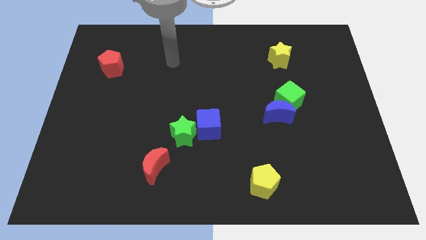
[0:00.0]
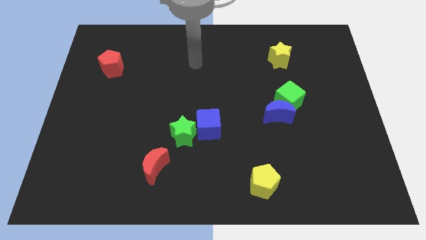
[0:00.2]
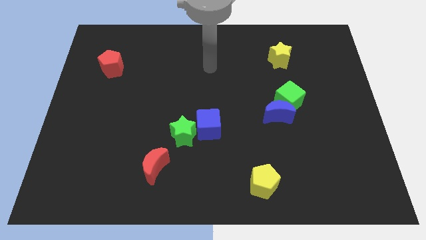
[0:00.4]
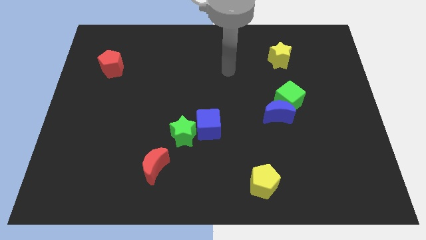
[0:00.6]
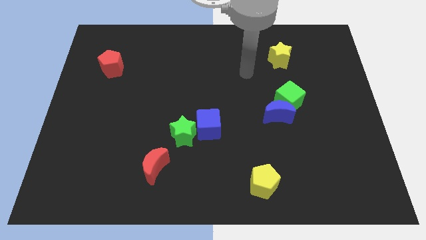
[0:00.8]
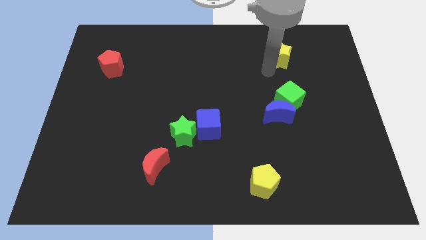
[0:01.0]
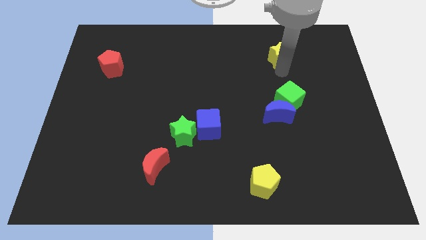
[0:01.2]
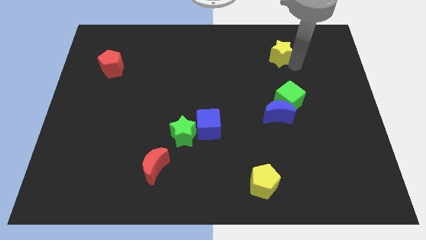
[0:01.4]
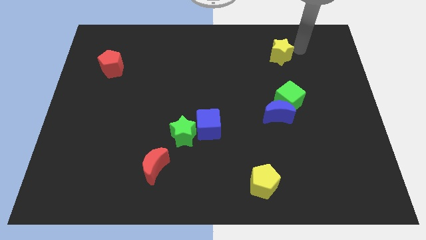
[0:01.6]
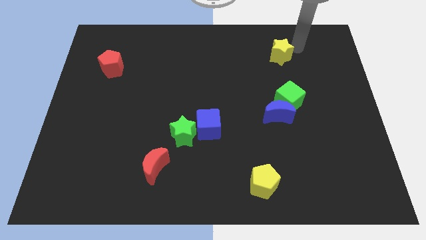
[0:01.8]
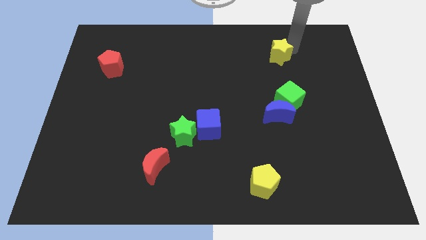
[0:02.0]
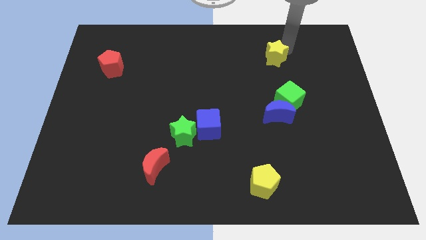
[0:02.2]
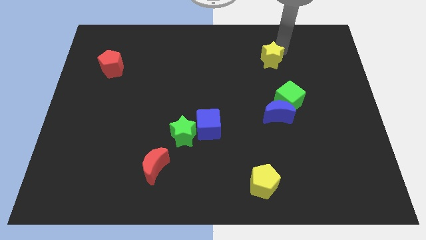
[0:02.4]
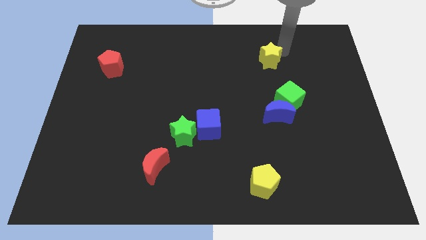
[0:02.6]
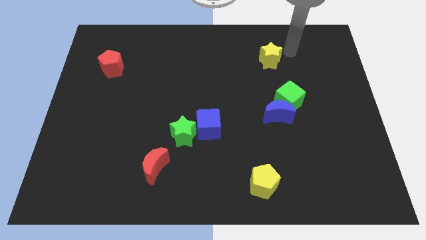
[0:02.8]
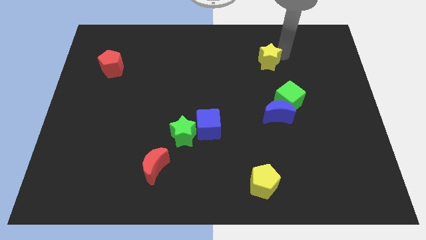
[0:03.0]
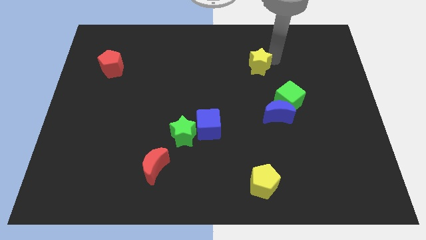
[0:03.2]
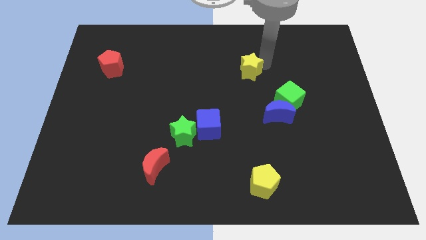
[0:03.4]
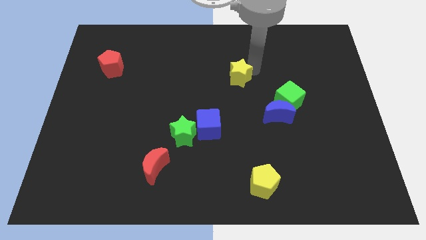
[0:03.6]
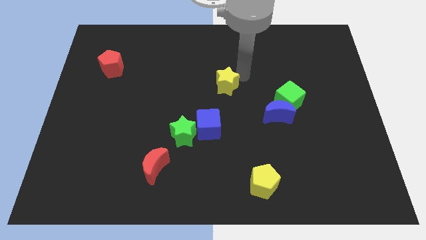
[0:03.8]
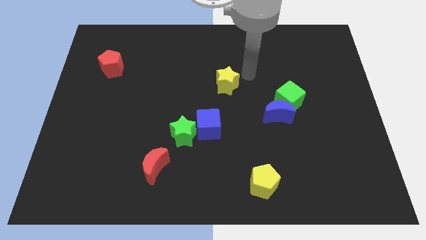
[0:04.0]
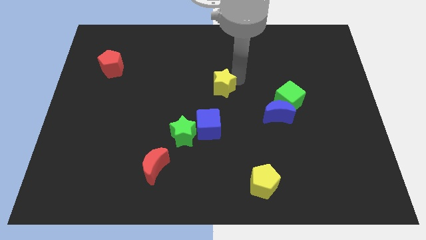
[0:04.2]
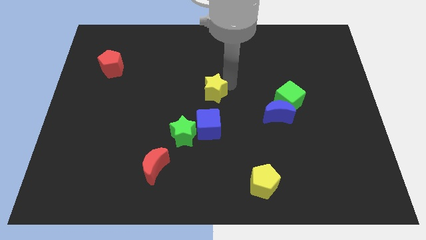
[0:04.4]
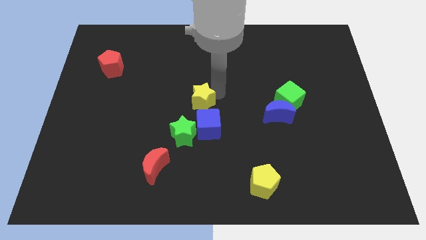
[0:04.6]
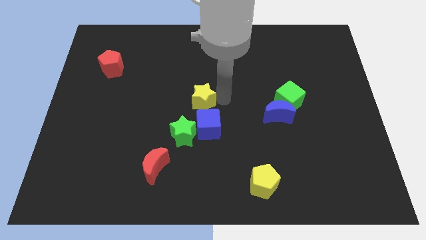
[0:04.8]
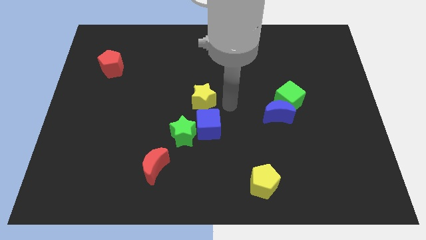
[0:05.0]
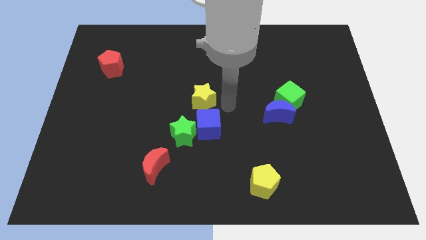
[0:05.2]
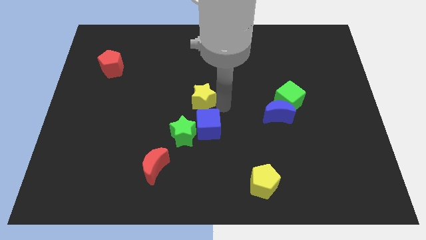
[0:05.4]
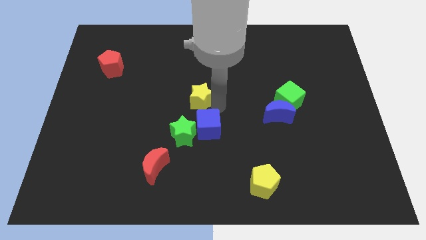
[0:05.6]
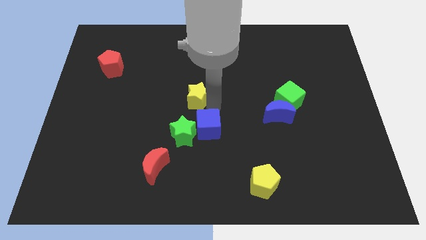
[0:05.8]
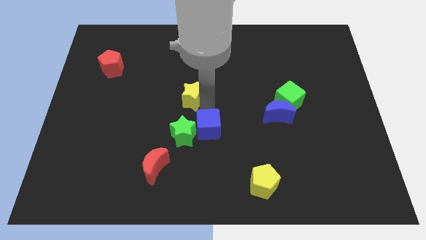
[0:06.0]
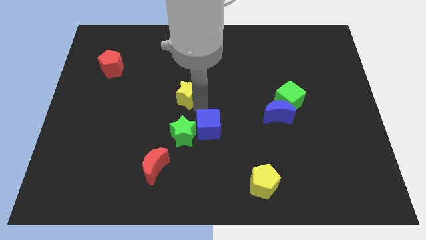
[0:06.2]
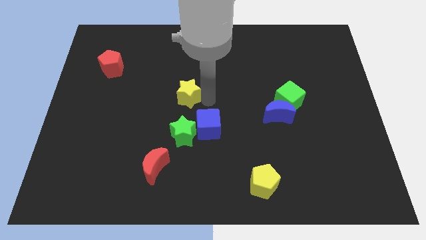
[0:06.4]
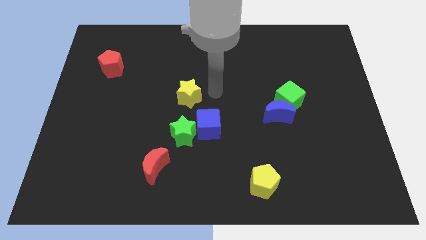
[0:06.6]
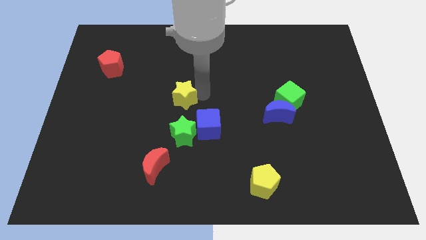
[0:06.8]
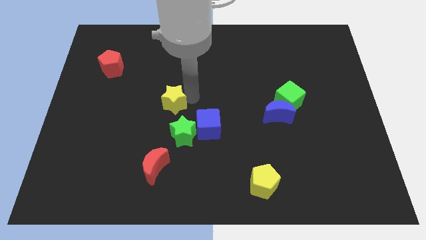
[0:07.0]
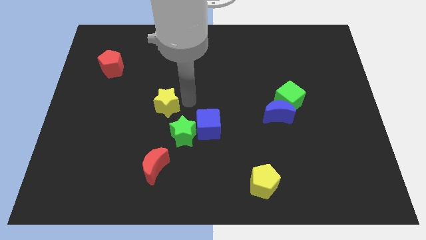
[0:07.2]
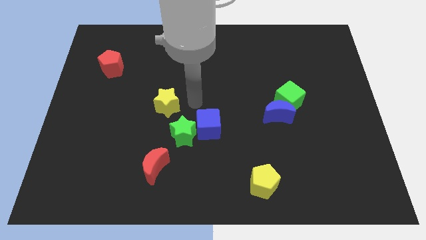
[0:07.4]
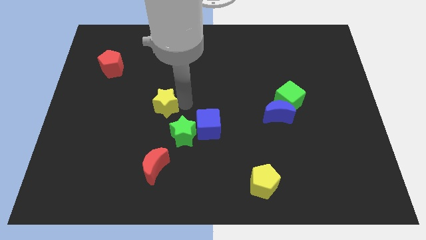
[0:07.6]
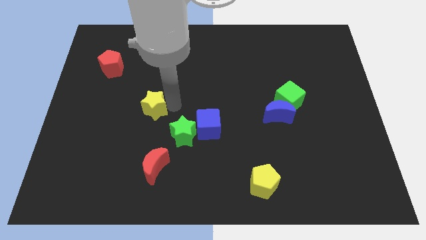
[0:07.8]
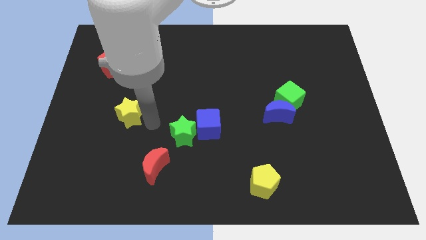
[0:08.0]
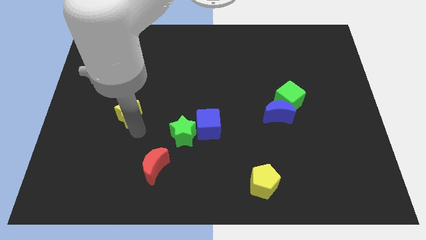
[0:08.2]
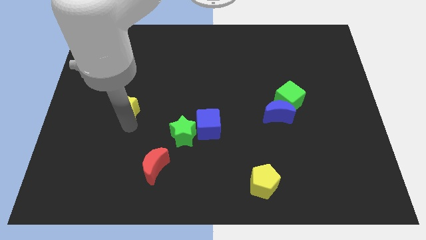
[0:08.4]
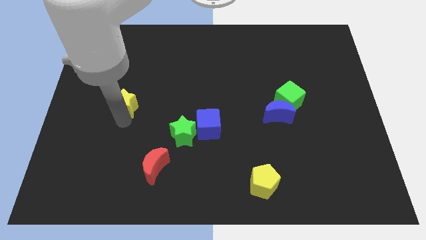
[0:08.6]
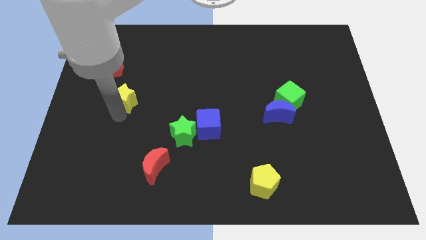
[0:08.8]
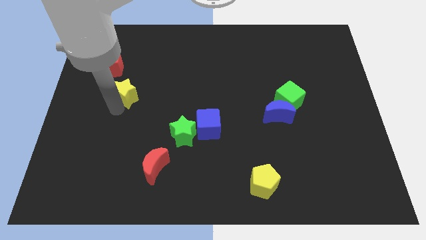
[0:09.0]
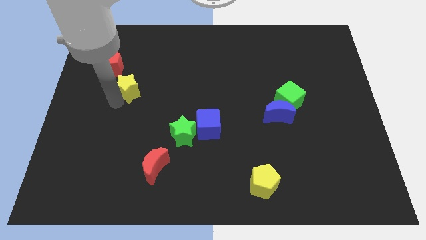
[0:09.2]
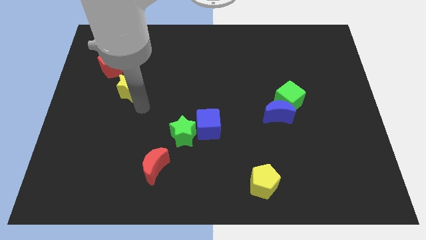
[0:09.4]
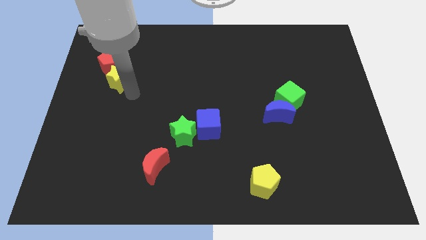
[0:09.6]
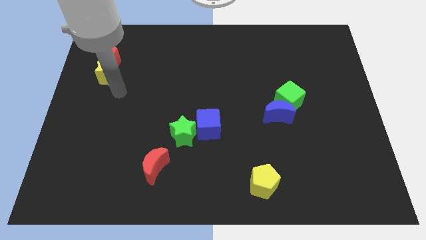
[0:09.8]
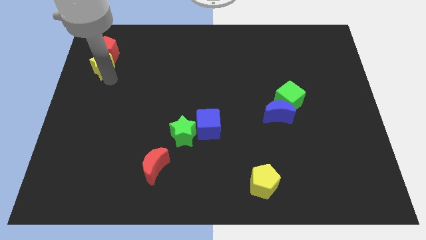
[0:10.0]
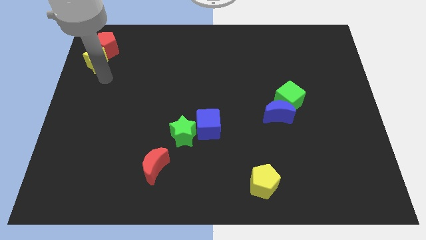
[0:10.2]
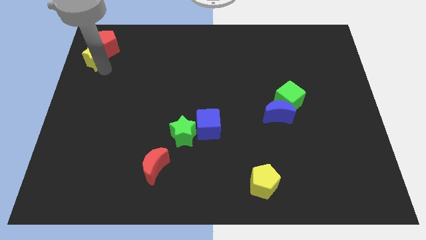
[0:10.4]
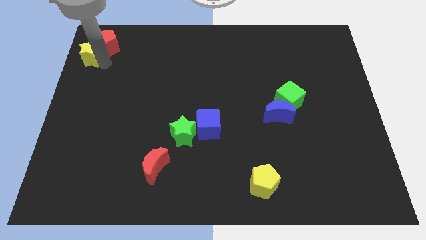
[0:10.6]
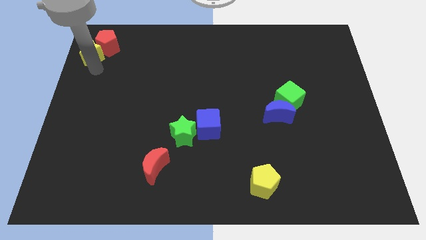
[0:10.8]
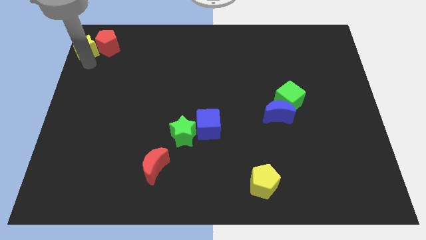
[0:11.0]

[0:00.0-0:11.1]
push the yellow star to the top left

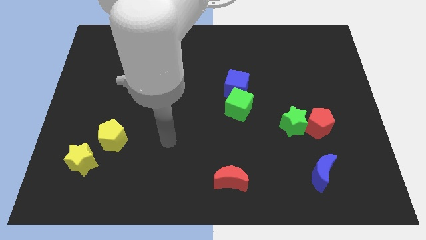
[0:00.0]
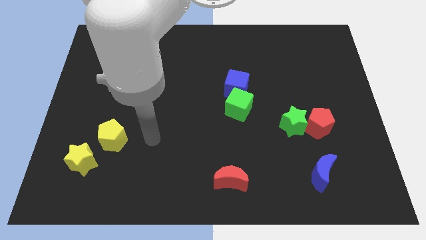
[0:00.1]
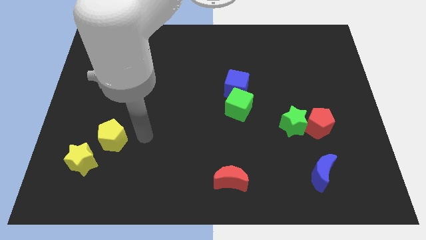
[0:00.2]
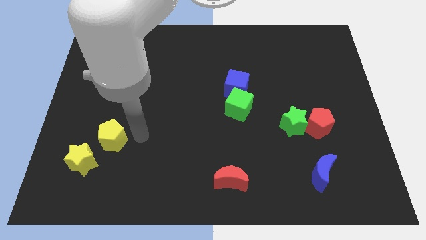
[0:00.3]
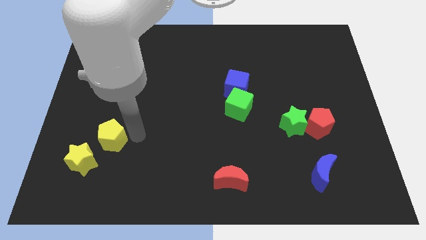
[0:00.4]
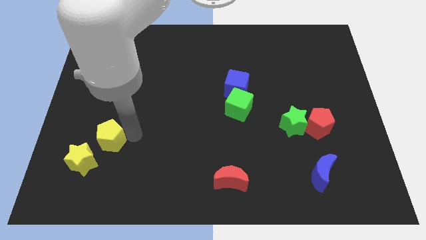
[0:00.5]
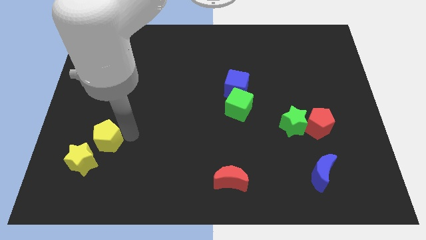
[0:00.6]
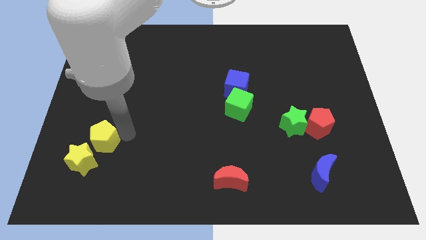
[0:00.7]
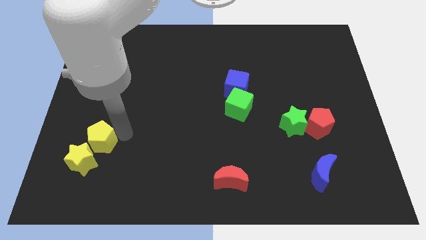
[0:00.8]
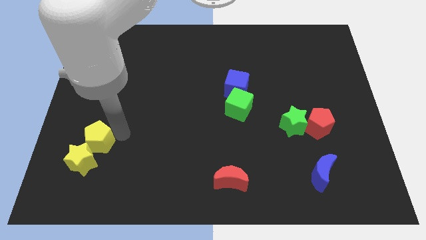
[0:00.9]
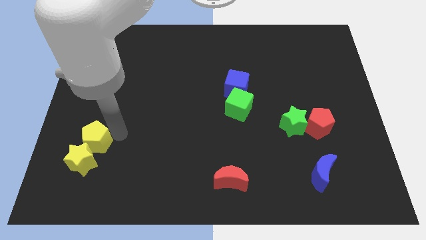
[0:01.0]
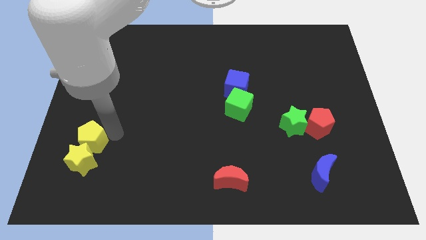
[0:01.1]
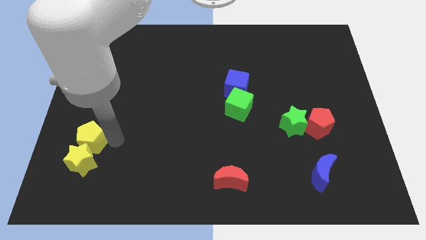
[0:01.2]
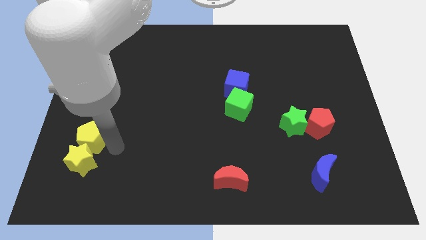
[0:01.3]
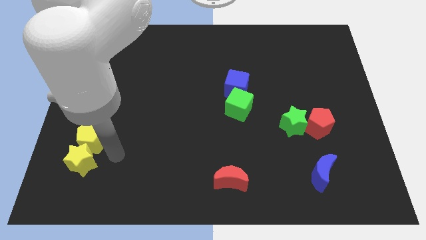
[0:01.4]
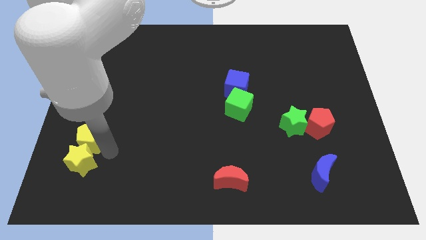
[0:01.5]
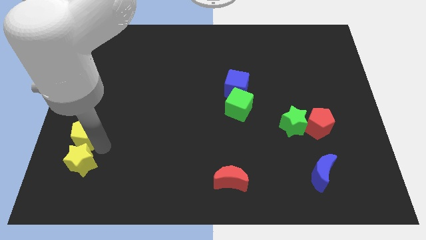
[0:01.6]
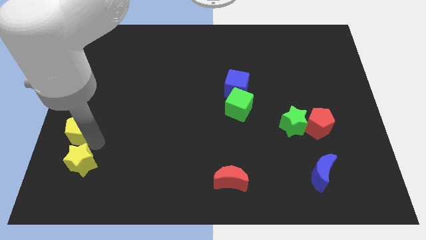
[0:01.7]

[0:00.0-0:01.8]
put the yellow pentagon to the left side
